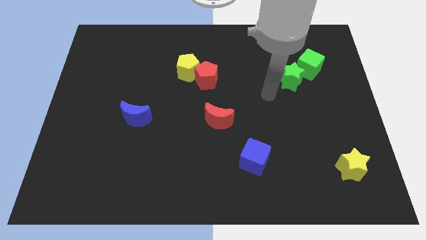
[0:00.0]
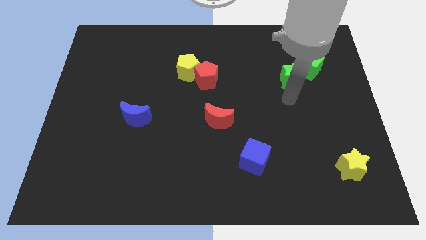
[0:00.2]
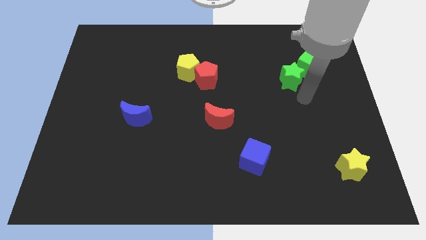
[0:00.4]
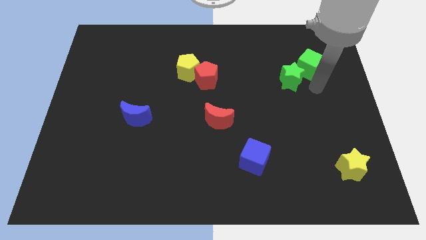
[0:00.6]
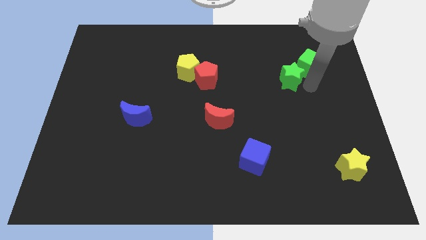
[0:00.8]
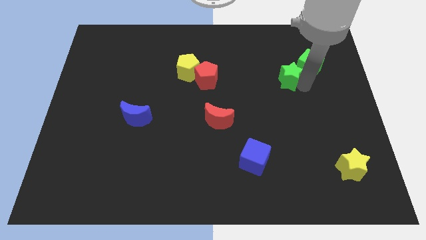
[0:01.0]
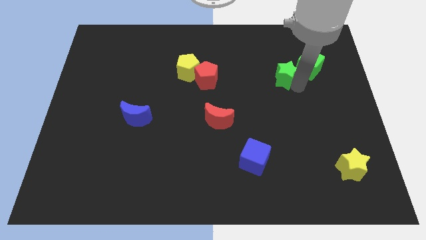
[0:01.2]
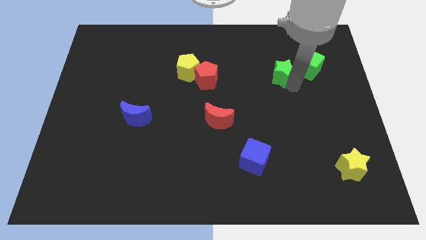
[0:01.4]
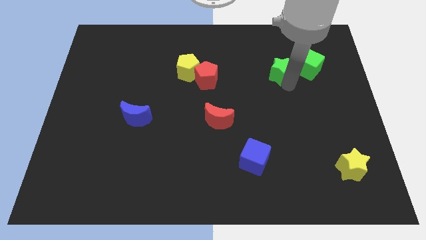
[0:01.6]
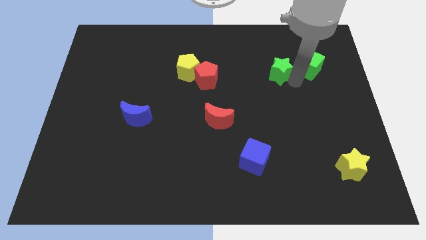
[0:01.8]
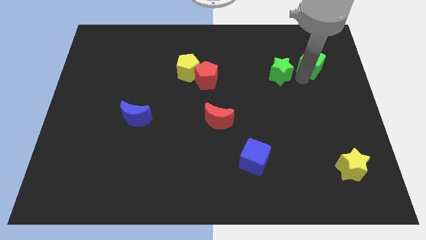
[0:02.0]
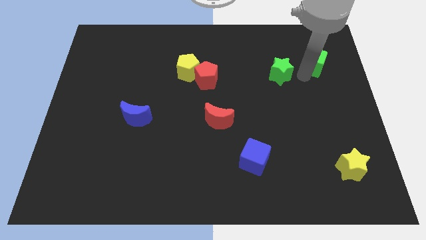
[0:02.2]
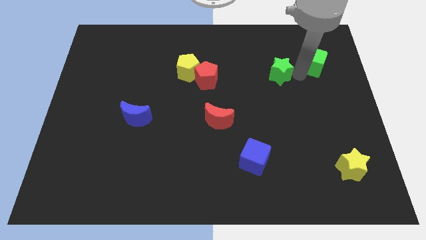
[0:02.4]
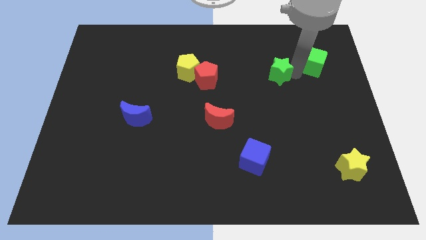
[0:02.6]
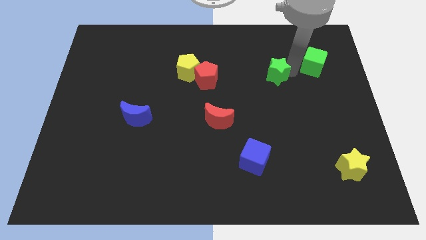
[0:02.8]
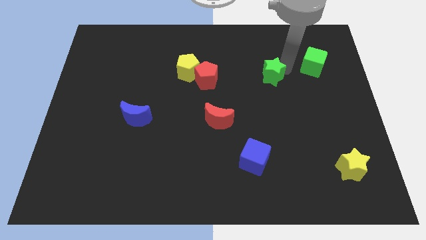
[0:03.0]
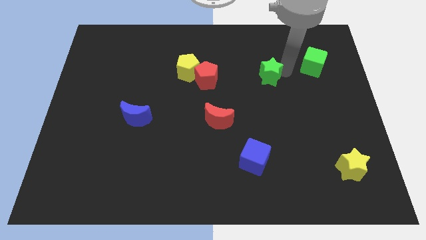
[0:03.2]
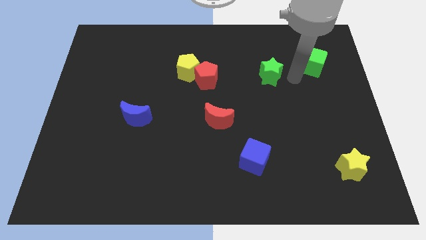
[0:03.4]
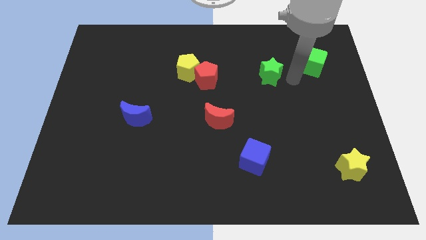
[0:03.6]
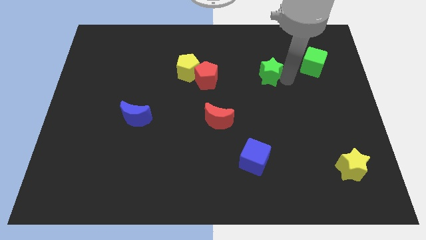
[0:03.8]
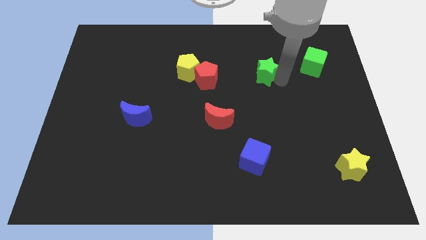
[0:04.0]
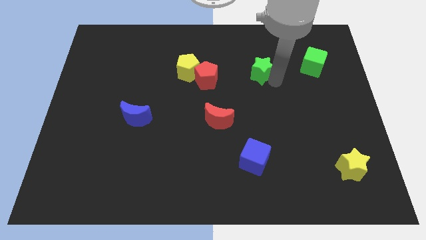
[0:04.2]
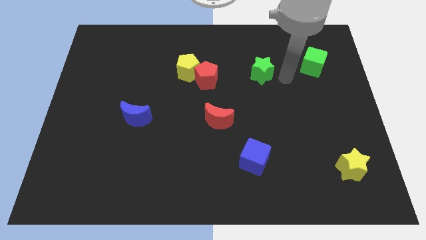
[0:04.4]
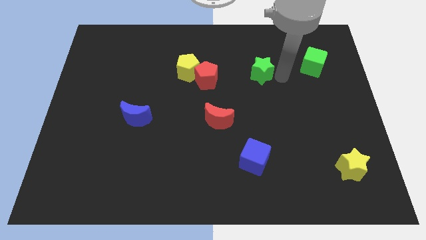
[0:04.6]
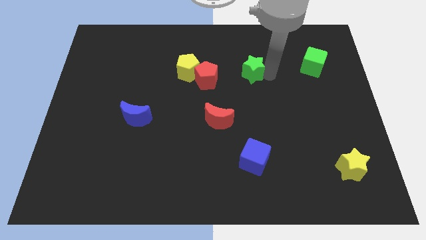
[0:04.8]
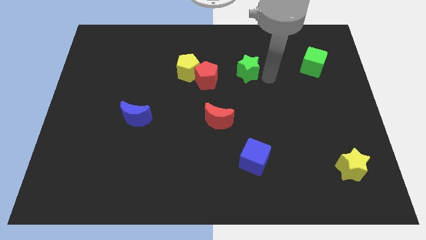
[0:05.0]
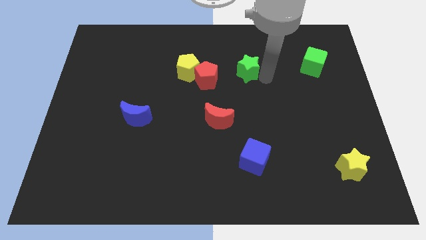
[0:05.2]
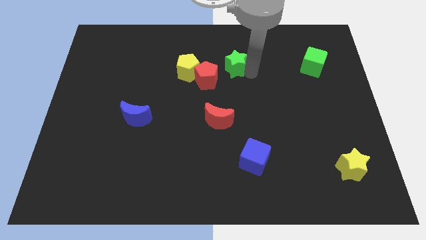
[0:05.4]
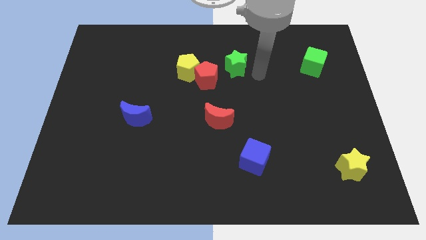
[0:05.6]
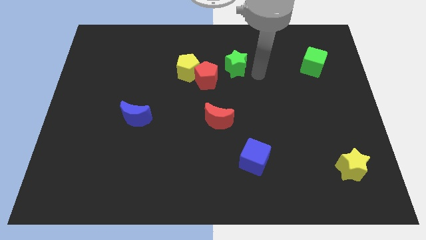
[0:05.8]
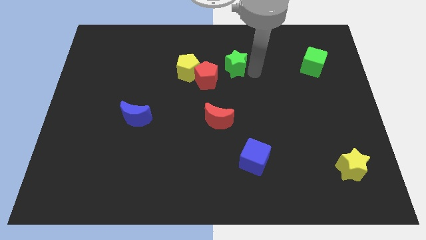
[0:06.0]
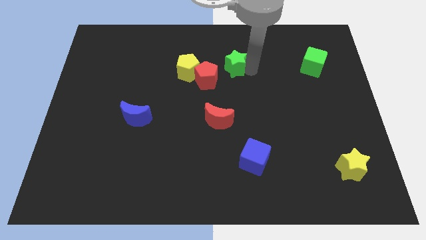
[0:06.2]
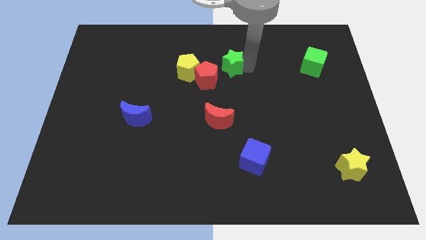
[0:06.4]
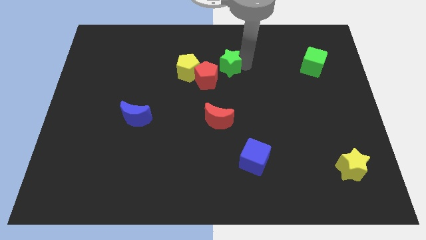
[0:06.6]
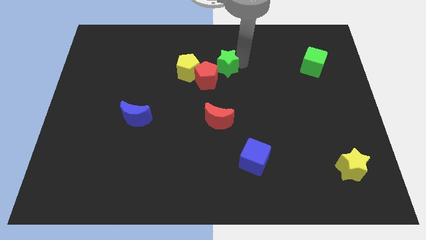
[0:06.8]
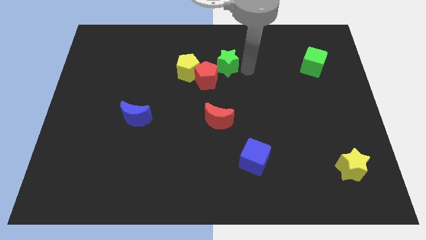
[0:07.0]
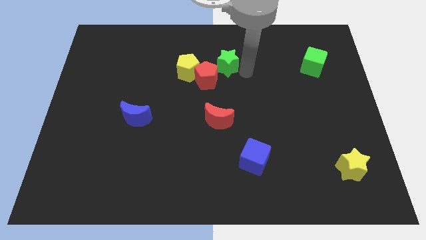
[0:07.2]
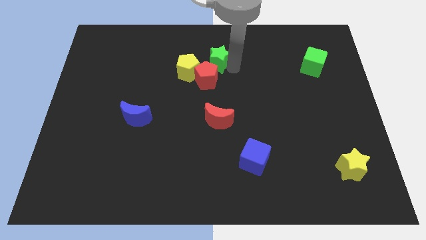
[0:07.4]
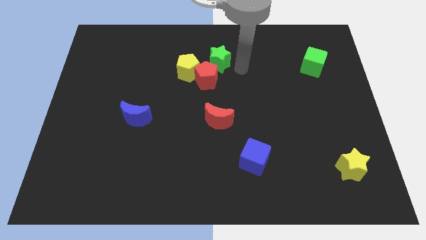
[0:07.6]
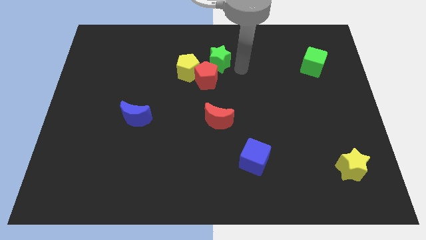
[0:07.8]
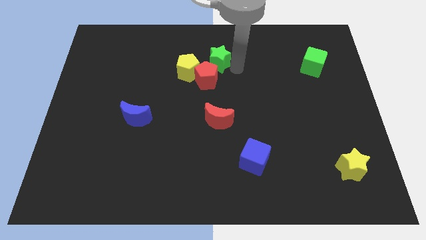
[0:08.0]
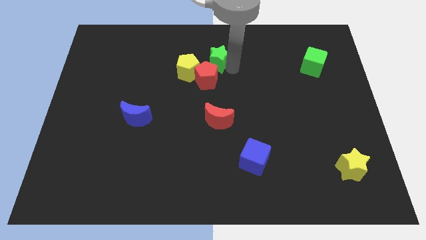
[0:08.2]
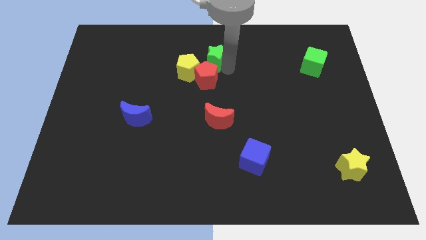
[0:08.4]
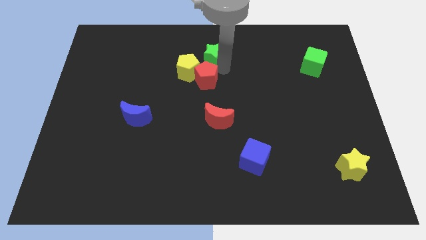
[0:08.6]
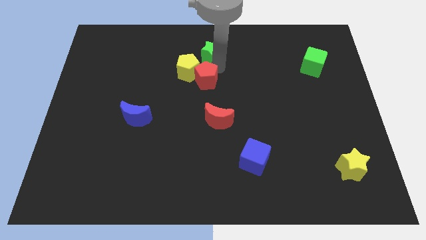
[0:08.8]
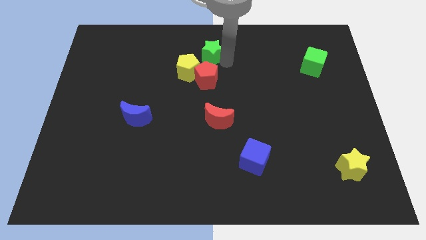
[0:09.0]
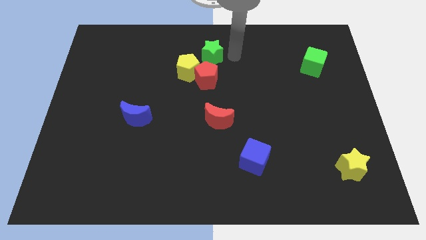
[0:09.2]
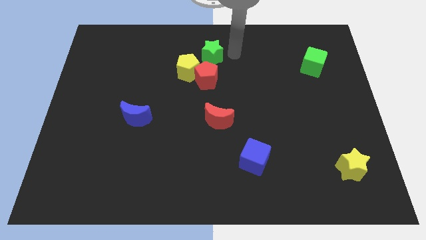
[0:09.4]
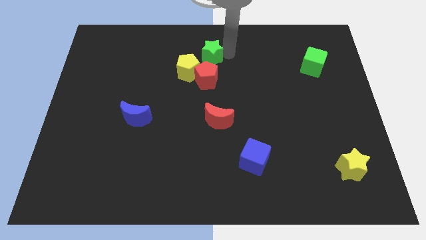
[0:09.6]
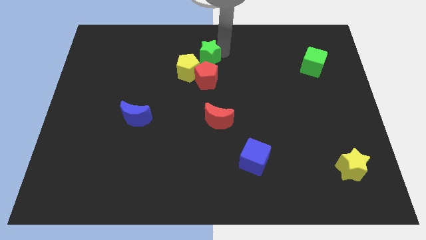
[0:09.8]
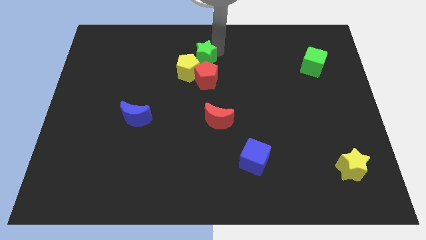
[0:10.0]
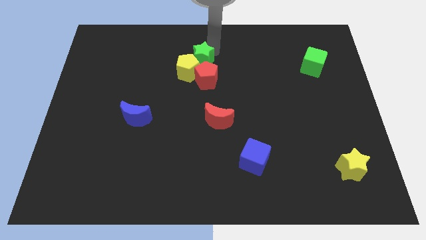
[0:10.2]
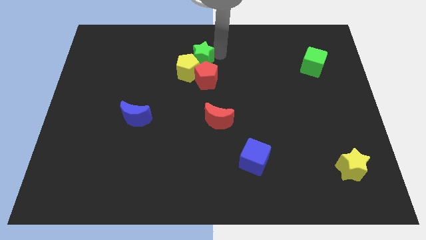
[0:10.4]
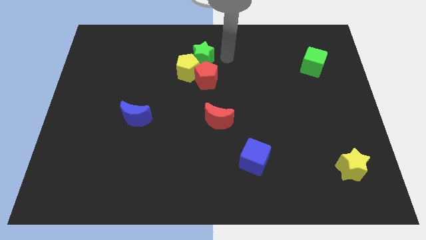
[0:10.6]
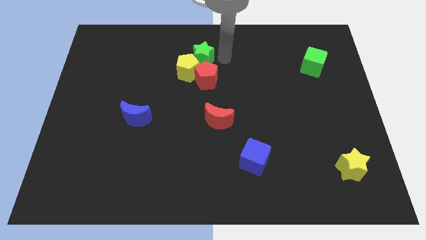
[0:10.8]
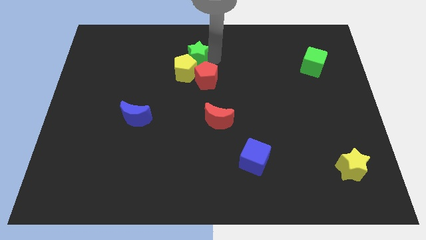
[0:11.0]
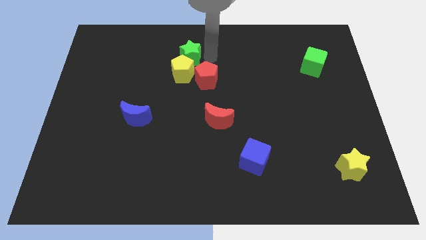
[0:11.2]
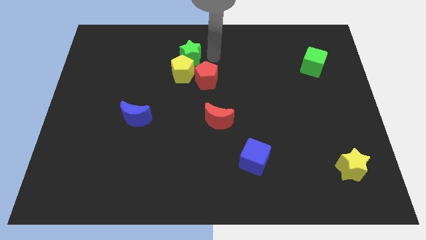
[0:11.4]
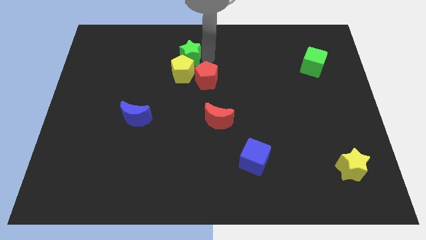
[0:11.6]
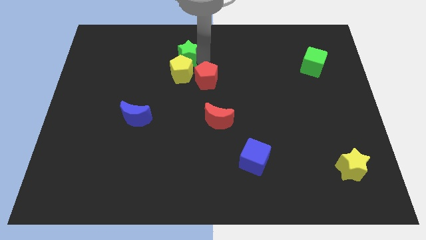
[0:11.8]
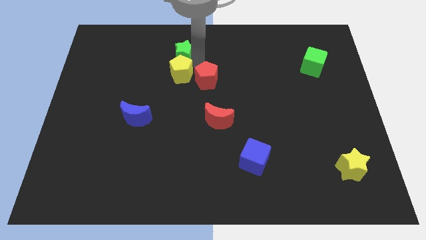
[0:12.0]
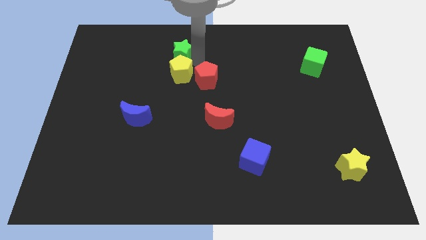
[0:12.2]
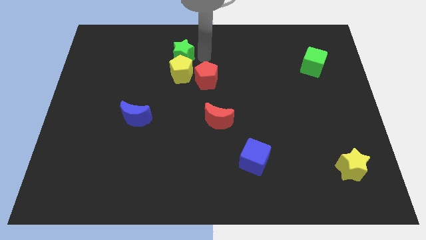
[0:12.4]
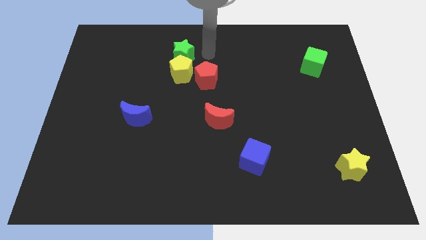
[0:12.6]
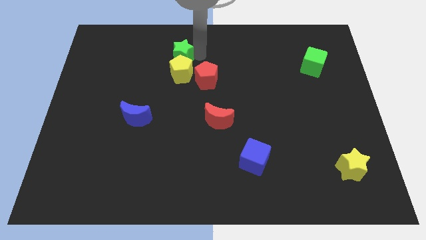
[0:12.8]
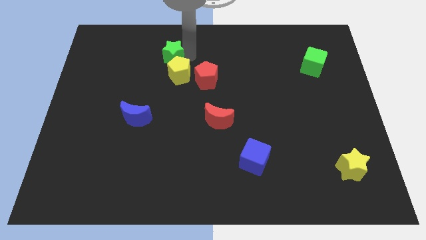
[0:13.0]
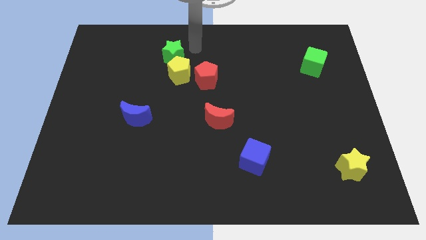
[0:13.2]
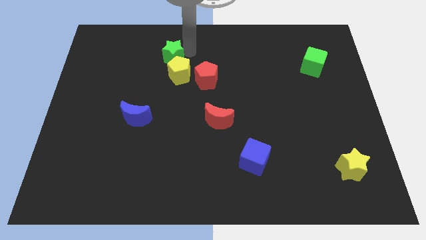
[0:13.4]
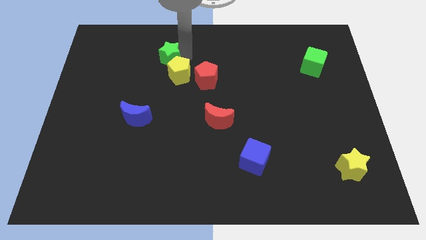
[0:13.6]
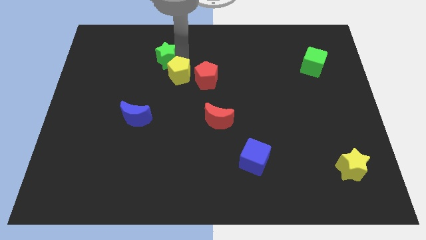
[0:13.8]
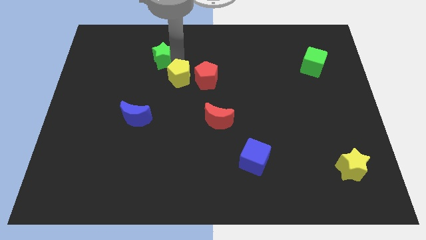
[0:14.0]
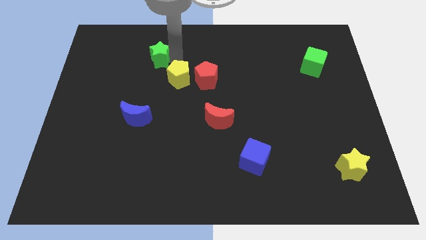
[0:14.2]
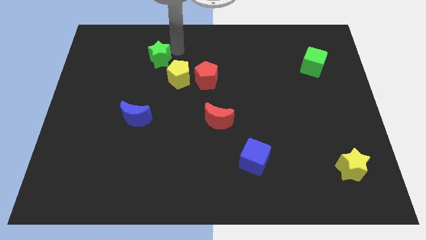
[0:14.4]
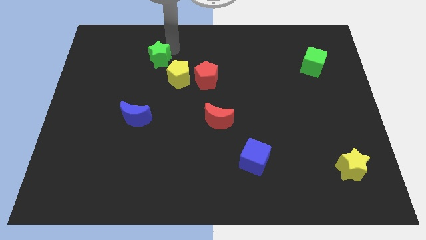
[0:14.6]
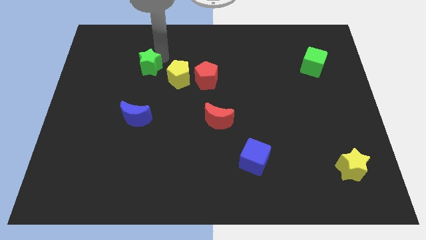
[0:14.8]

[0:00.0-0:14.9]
move the green star to the left of the yellow pentagon
